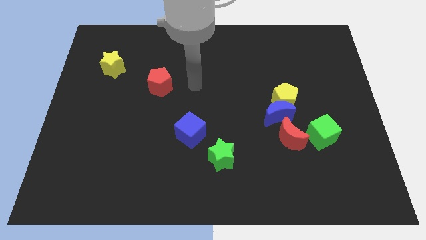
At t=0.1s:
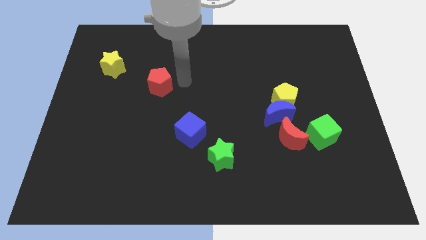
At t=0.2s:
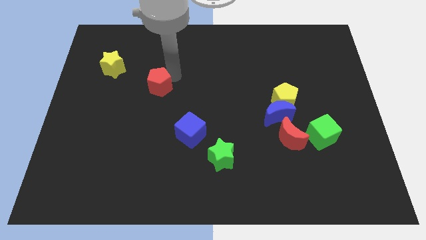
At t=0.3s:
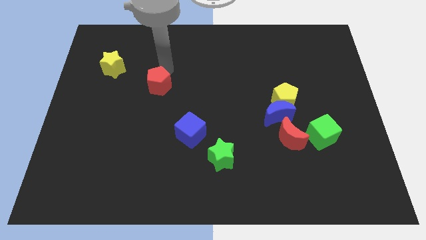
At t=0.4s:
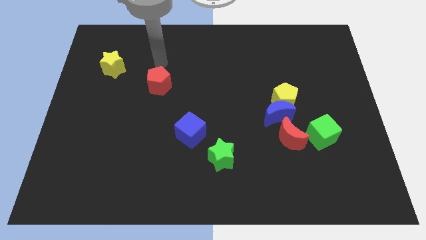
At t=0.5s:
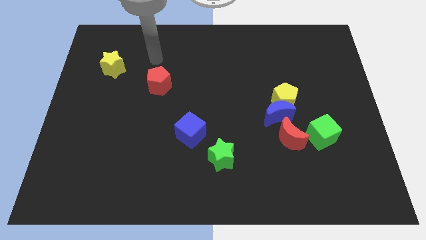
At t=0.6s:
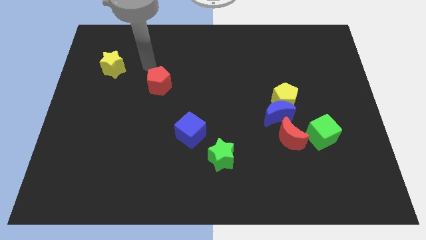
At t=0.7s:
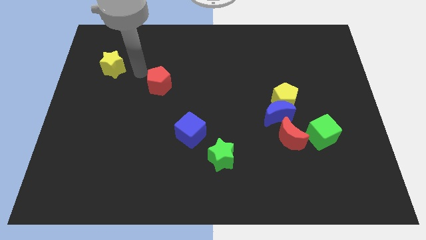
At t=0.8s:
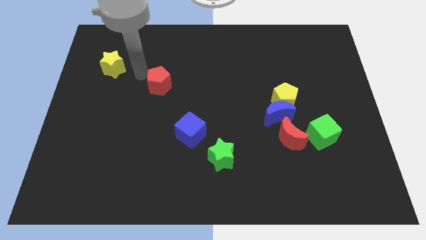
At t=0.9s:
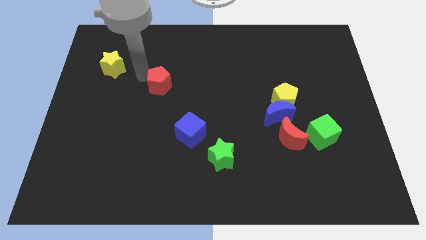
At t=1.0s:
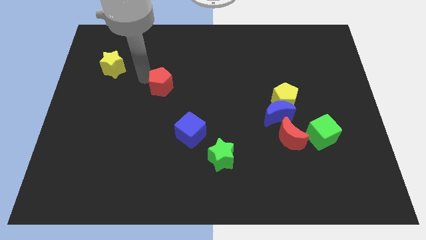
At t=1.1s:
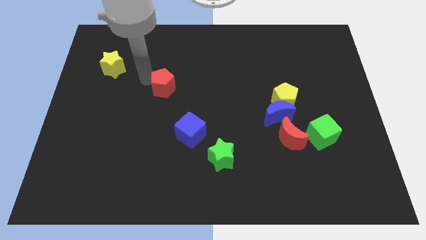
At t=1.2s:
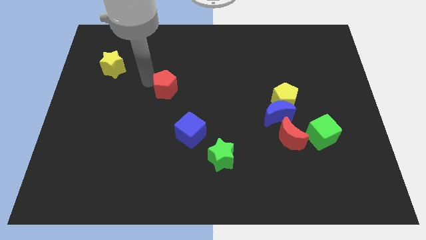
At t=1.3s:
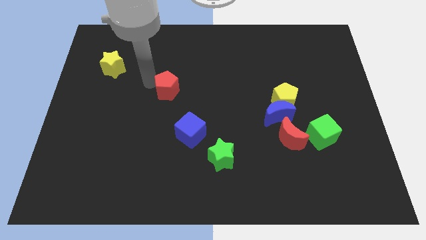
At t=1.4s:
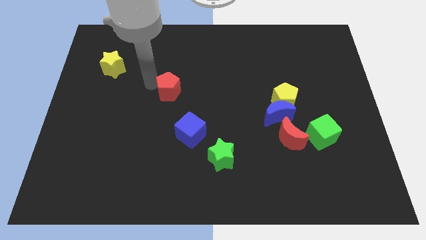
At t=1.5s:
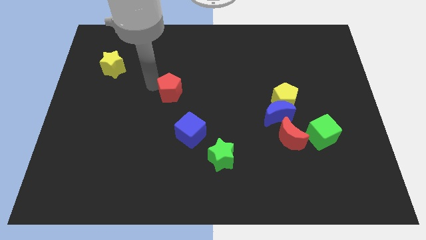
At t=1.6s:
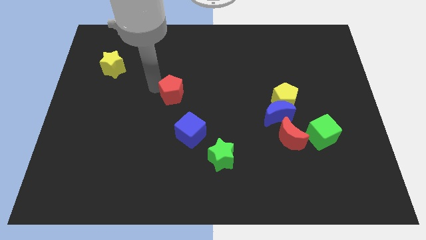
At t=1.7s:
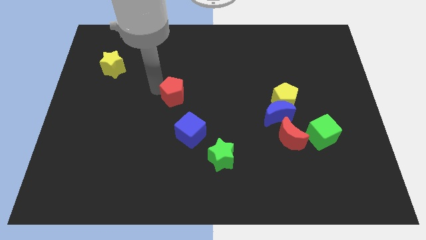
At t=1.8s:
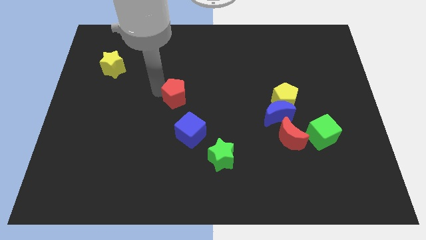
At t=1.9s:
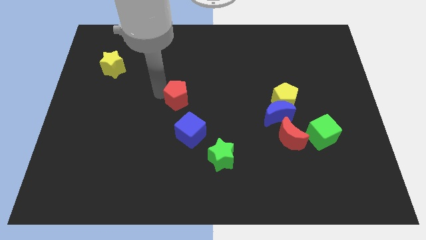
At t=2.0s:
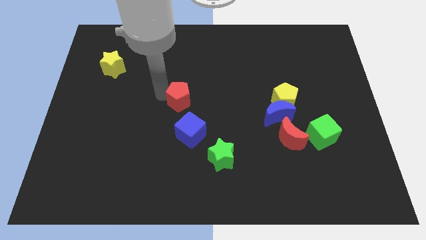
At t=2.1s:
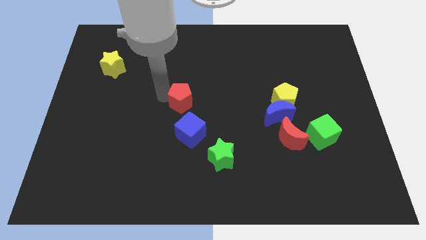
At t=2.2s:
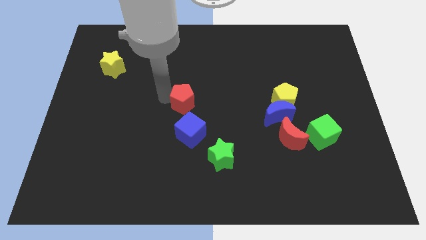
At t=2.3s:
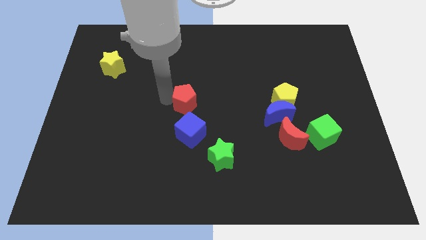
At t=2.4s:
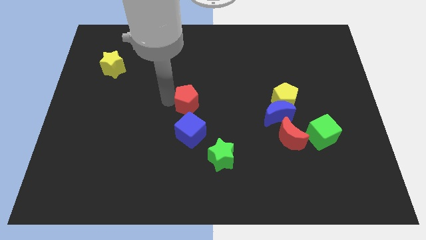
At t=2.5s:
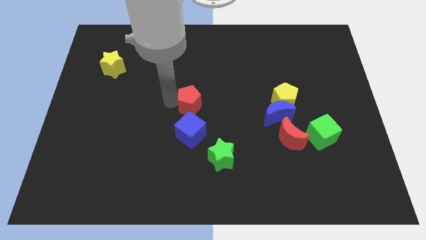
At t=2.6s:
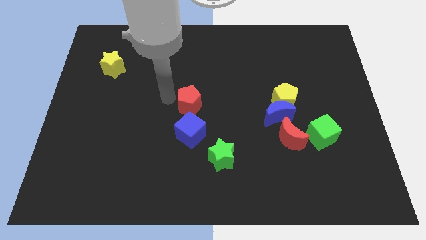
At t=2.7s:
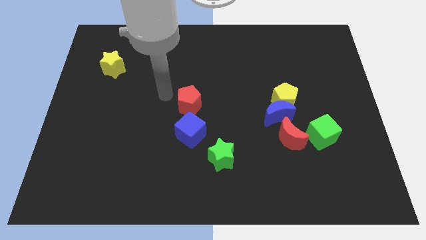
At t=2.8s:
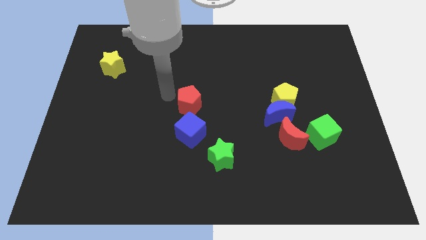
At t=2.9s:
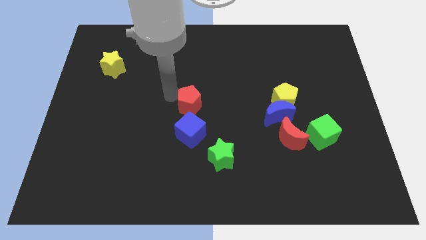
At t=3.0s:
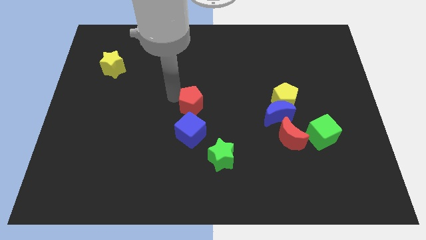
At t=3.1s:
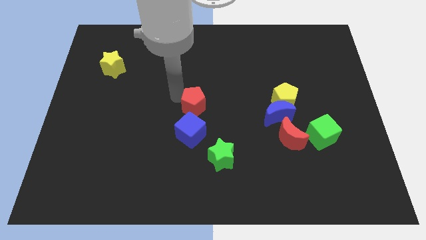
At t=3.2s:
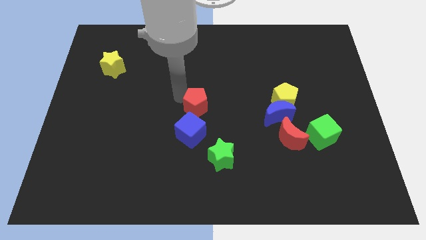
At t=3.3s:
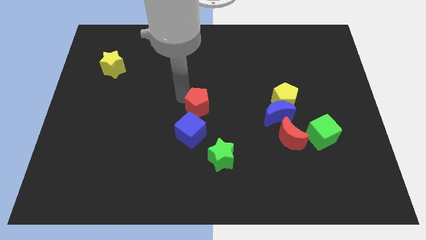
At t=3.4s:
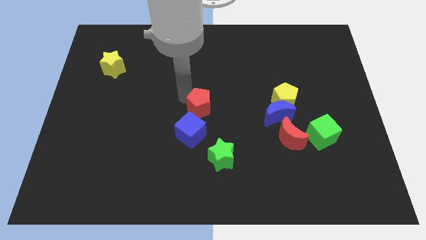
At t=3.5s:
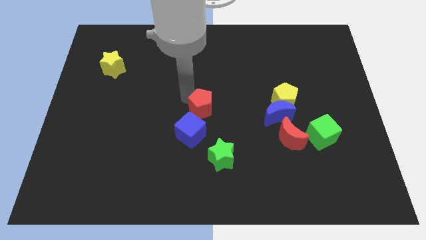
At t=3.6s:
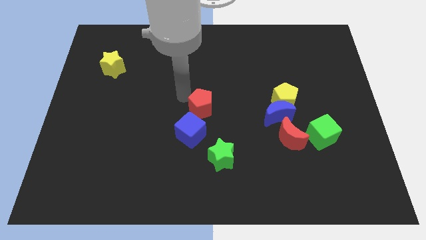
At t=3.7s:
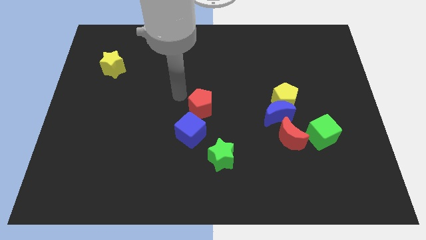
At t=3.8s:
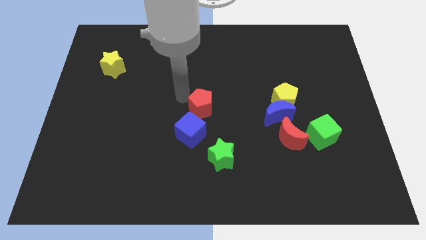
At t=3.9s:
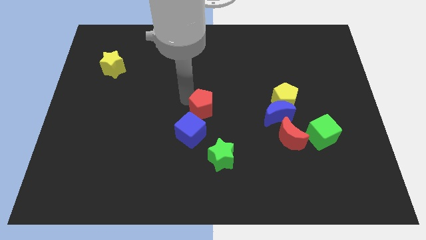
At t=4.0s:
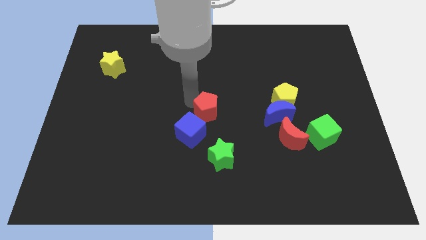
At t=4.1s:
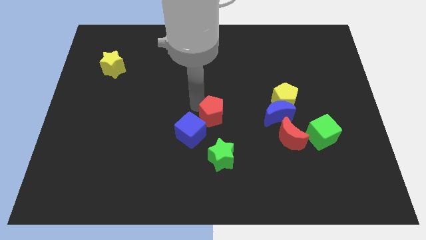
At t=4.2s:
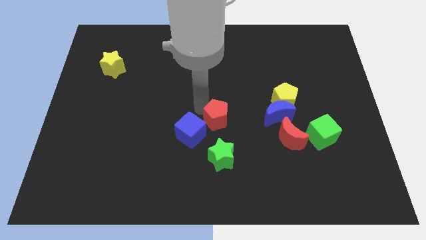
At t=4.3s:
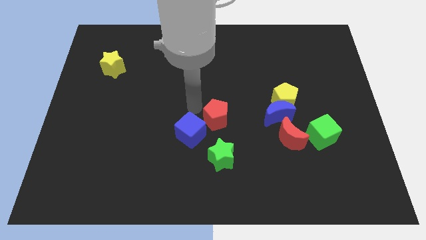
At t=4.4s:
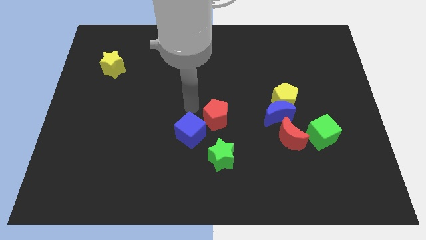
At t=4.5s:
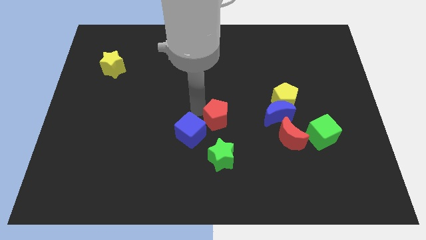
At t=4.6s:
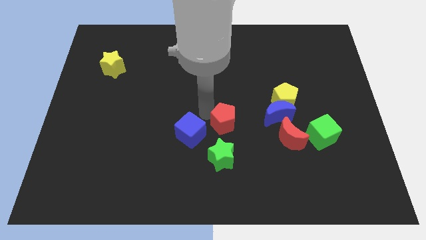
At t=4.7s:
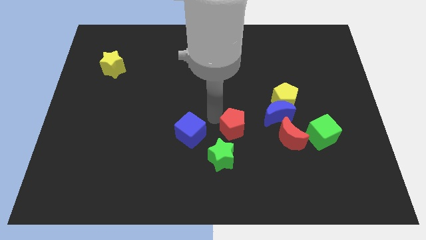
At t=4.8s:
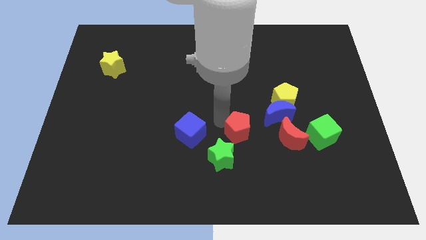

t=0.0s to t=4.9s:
put the red pentagon to the bottom left of the blue moon

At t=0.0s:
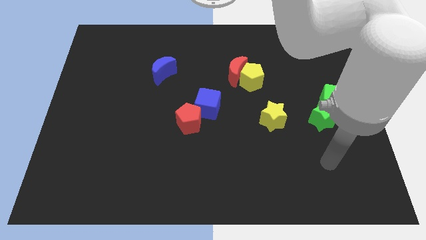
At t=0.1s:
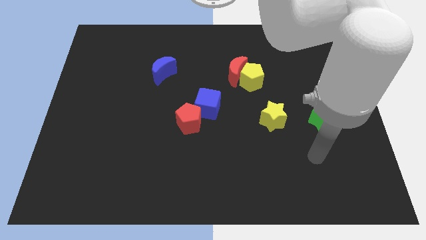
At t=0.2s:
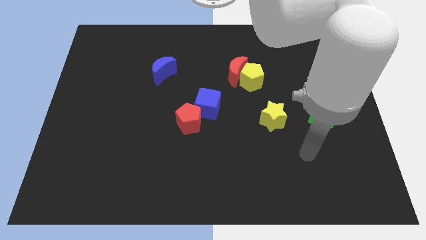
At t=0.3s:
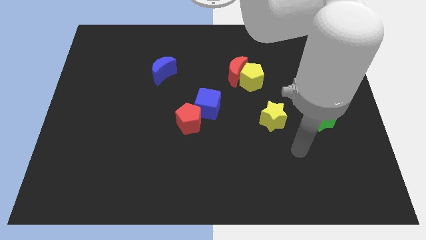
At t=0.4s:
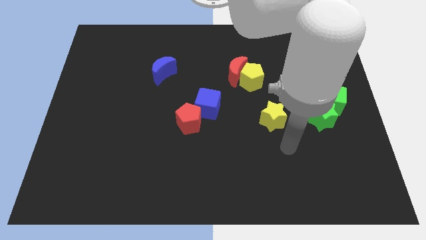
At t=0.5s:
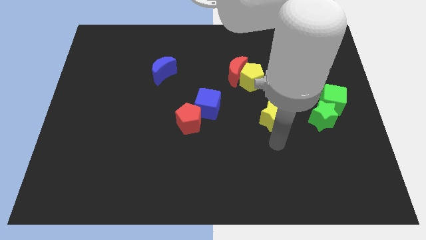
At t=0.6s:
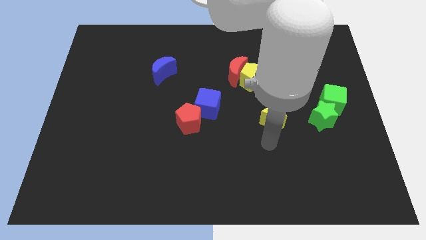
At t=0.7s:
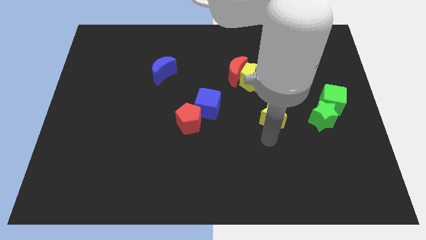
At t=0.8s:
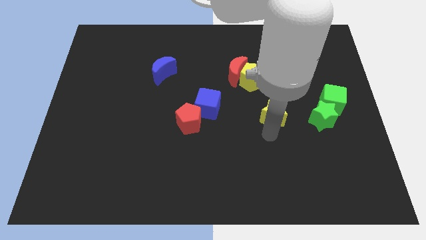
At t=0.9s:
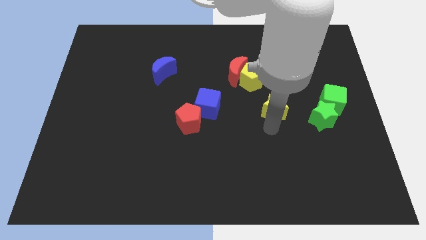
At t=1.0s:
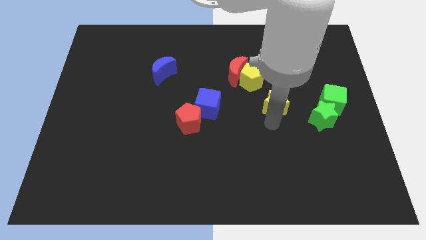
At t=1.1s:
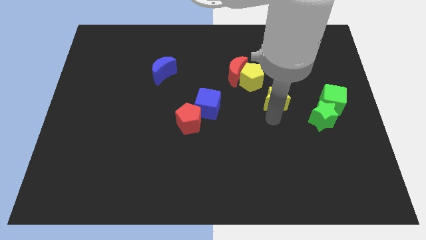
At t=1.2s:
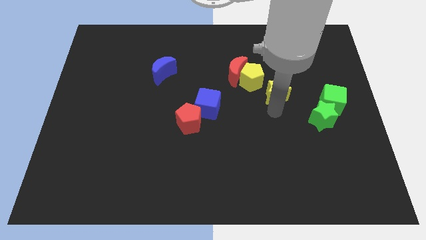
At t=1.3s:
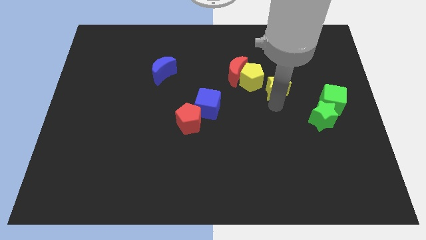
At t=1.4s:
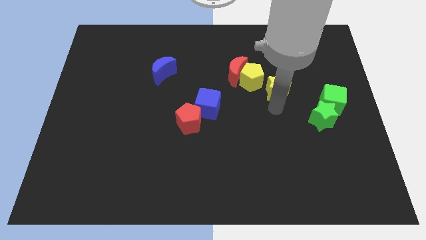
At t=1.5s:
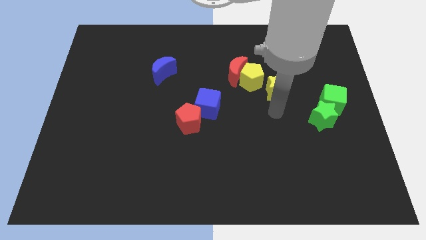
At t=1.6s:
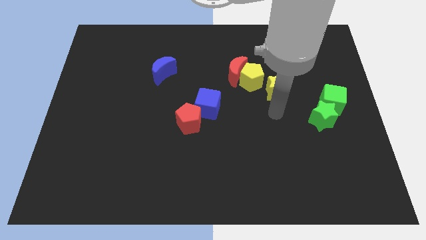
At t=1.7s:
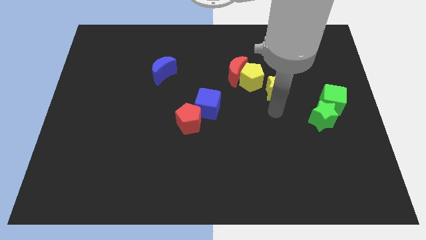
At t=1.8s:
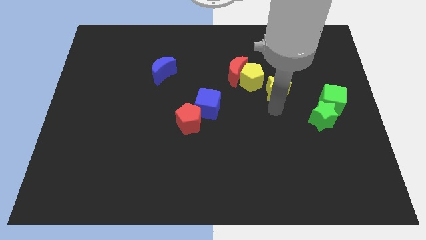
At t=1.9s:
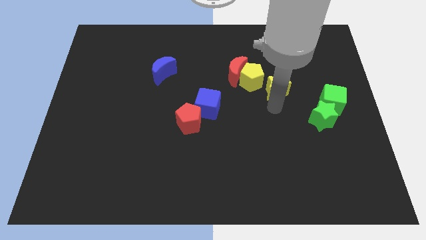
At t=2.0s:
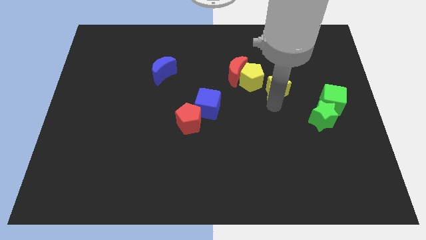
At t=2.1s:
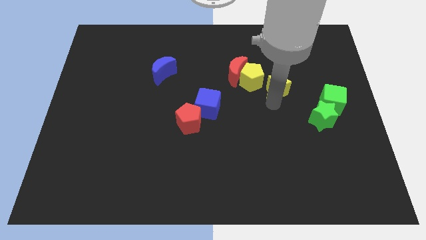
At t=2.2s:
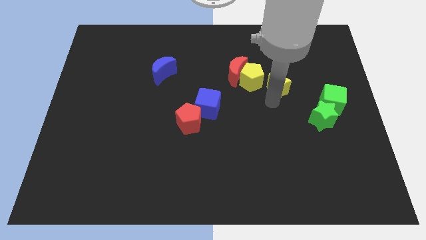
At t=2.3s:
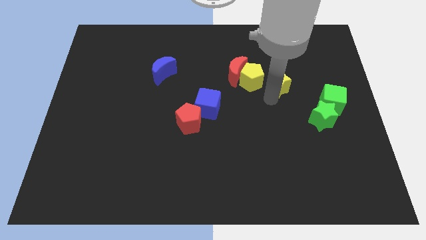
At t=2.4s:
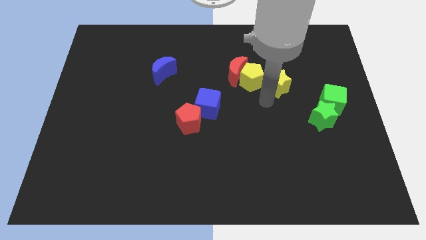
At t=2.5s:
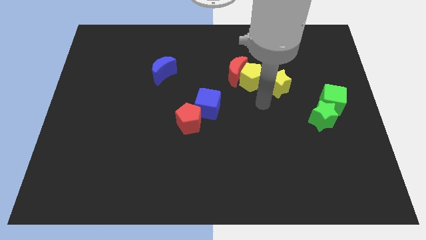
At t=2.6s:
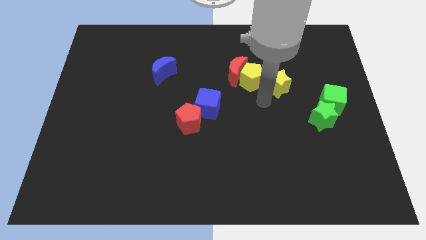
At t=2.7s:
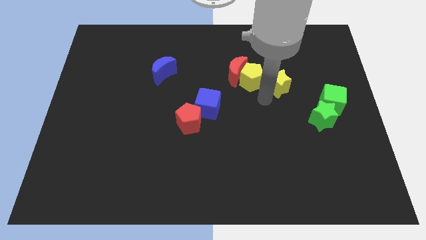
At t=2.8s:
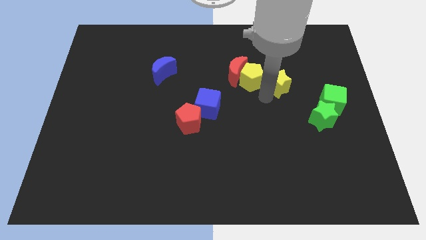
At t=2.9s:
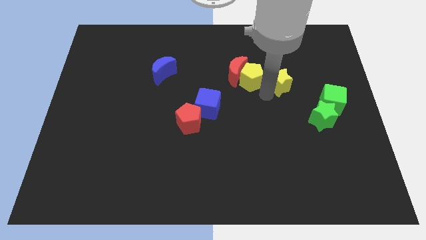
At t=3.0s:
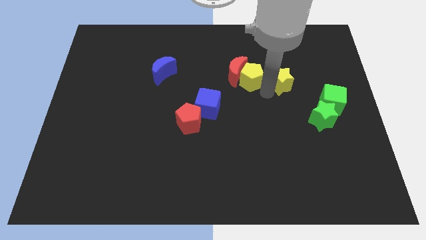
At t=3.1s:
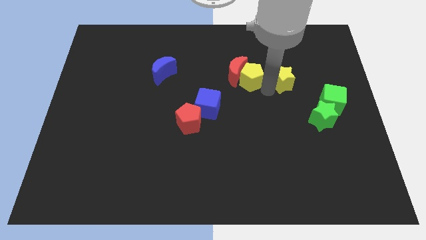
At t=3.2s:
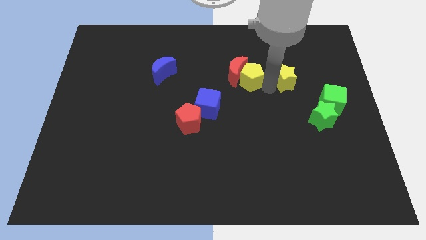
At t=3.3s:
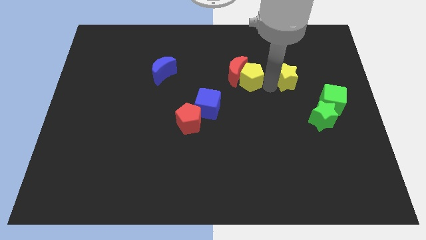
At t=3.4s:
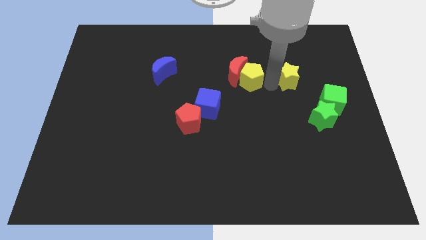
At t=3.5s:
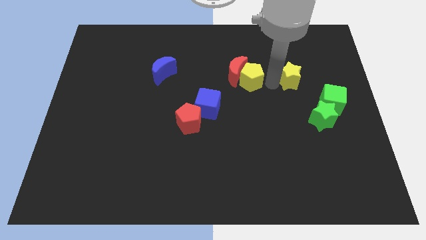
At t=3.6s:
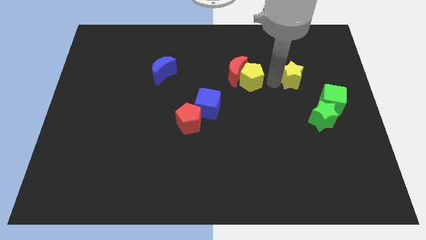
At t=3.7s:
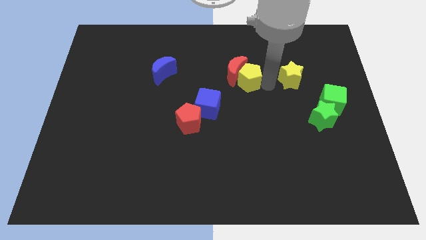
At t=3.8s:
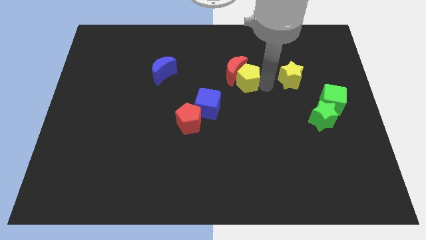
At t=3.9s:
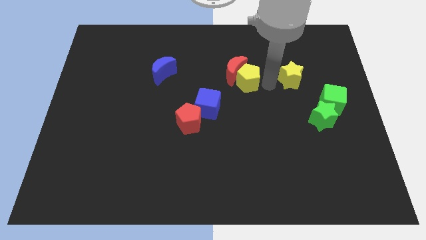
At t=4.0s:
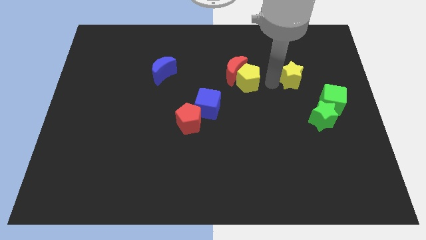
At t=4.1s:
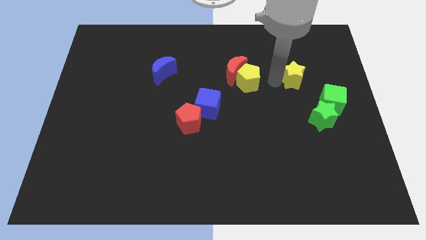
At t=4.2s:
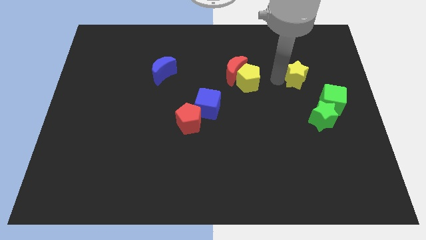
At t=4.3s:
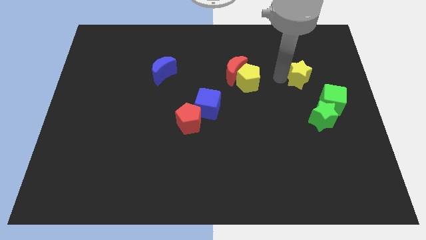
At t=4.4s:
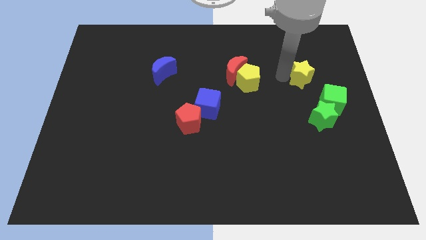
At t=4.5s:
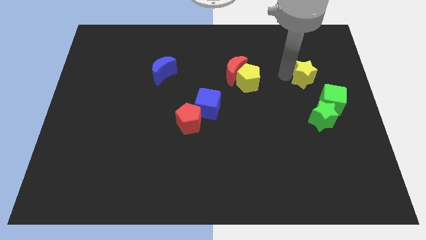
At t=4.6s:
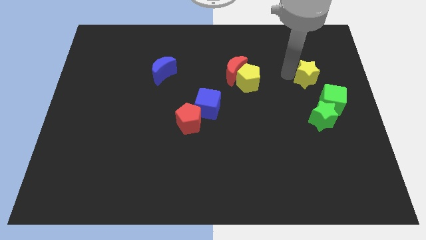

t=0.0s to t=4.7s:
slide the yellow star to the top of the green cube
